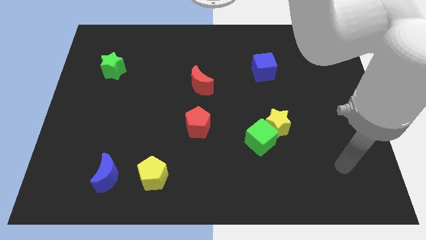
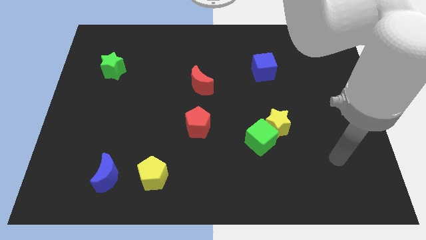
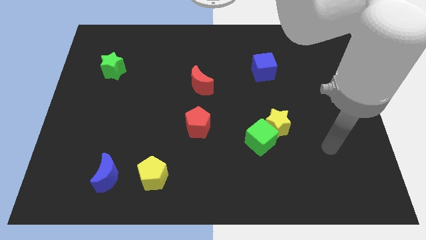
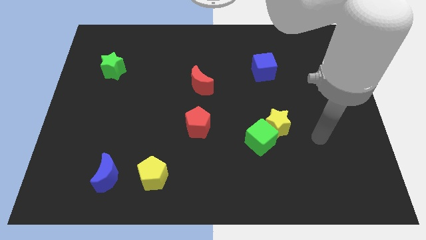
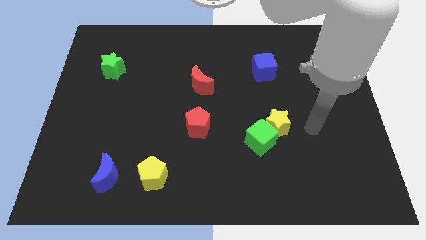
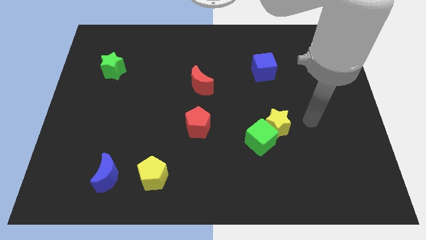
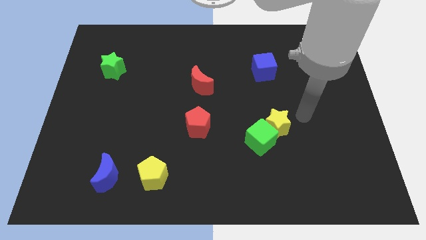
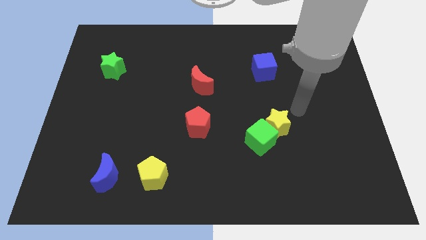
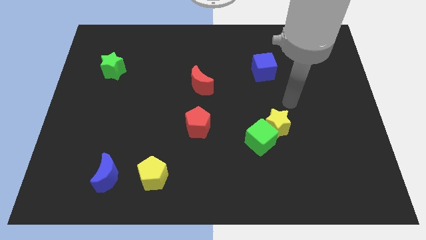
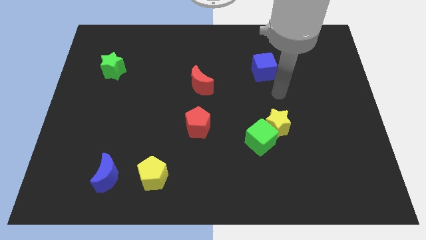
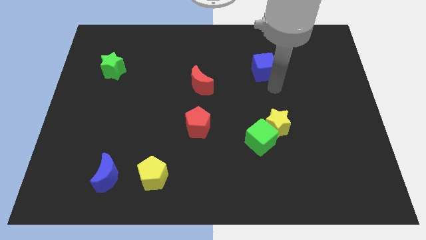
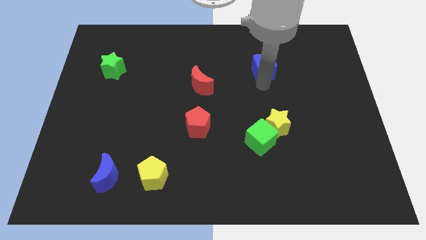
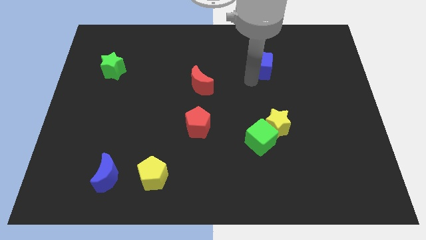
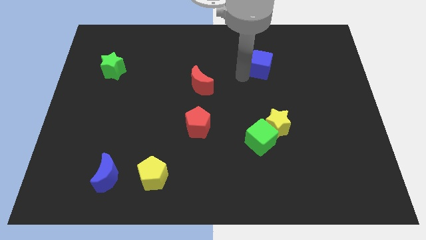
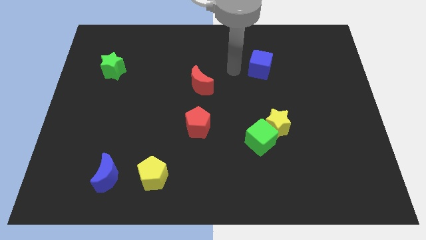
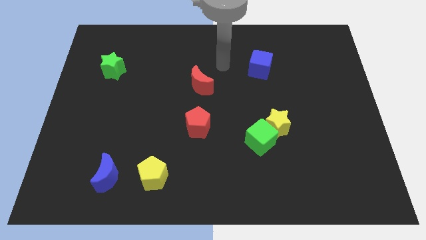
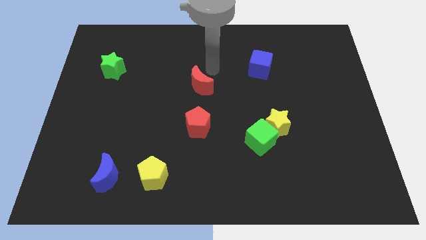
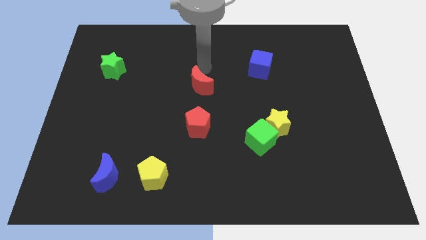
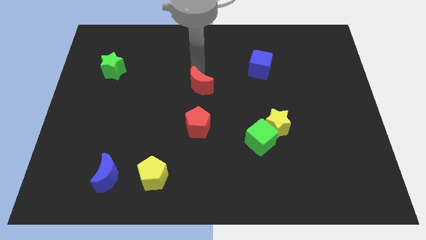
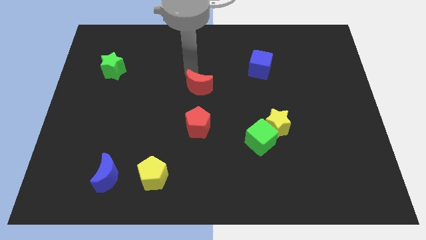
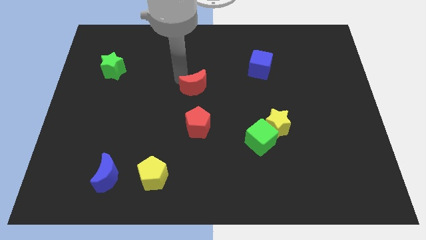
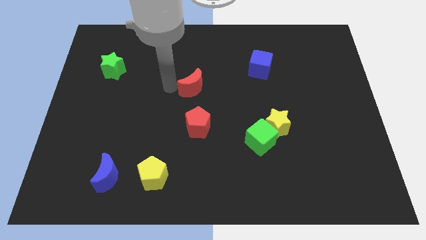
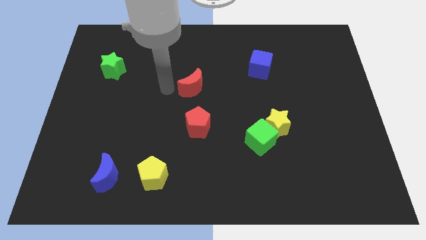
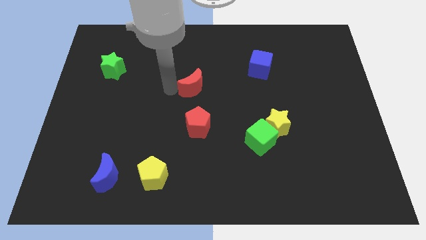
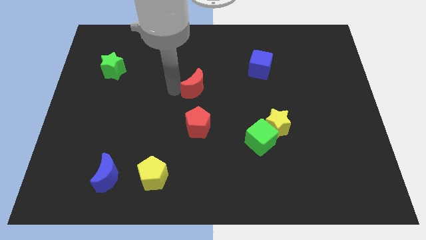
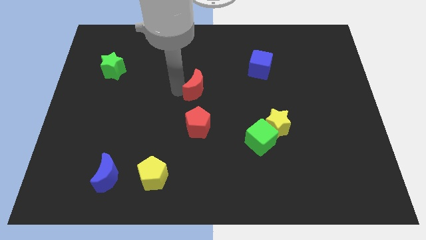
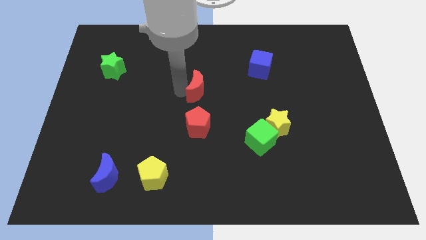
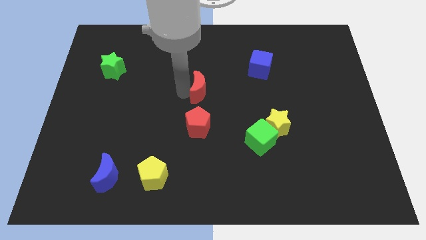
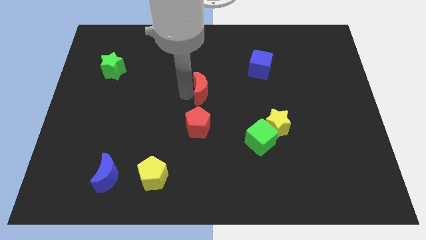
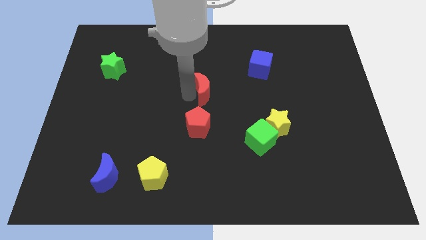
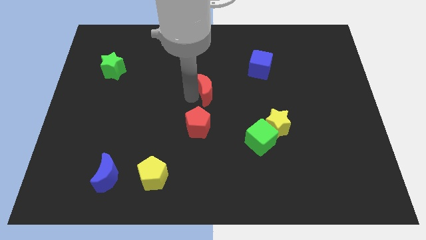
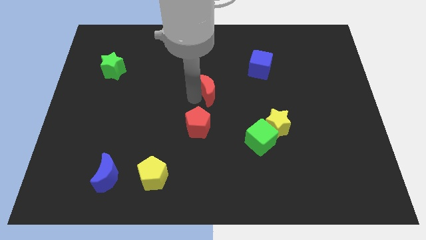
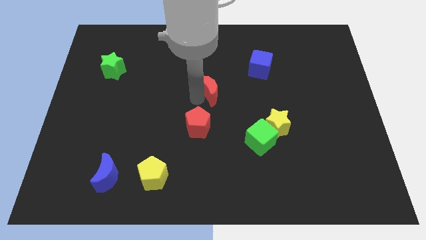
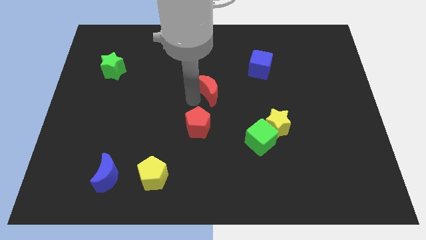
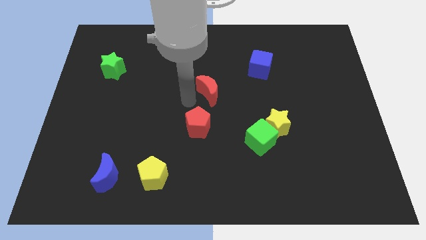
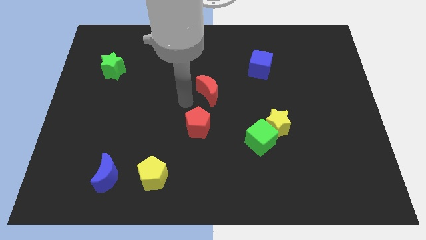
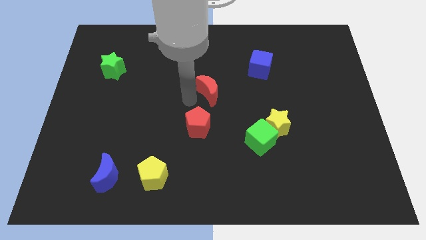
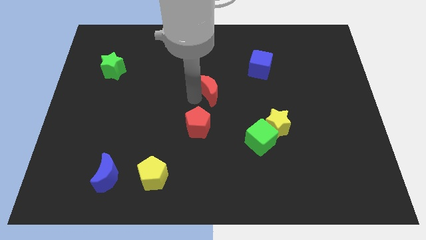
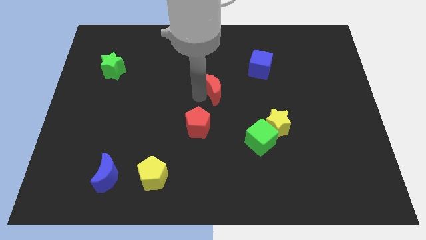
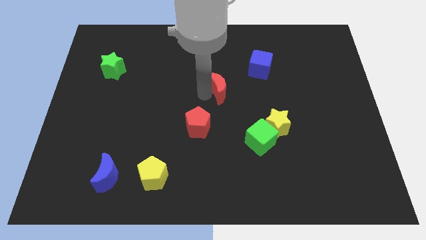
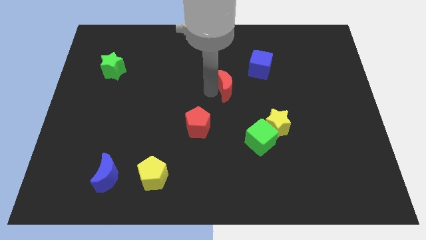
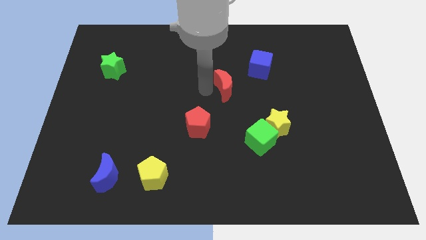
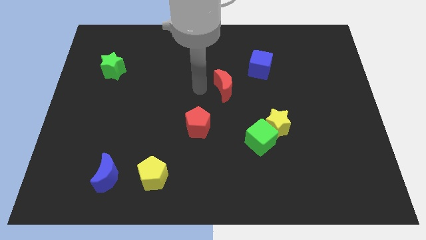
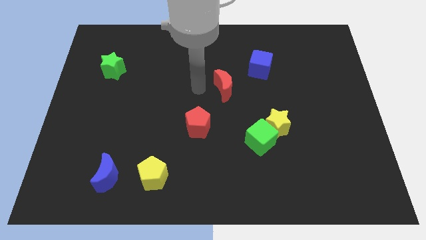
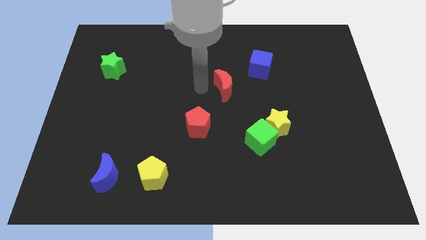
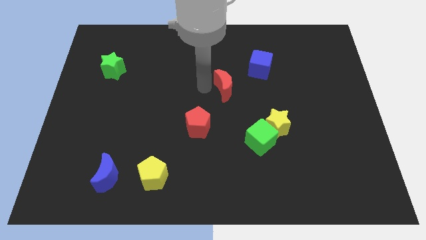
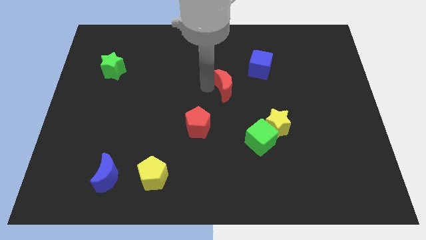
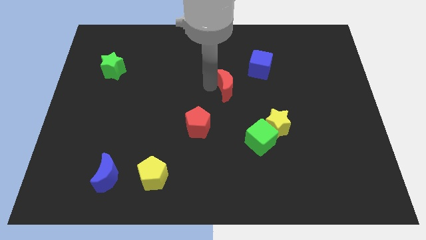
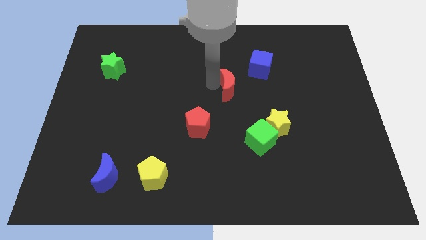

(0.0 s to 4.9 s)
move the red moon a little bit right

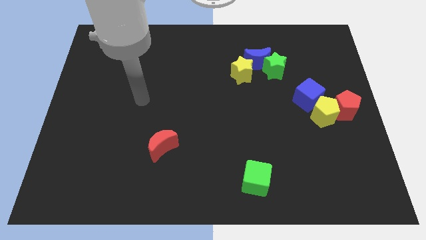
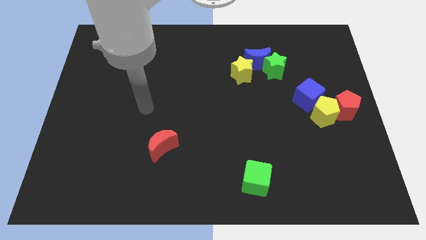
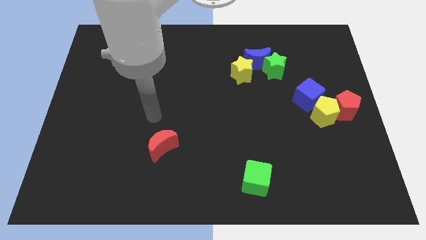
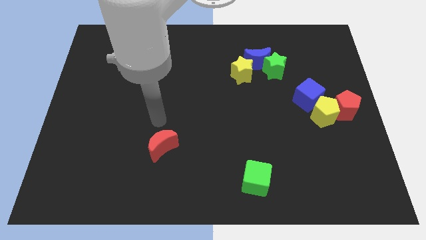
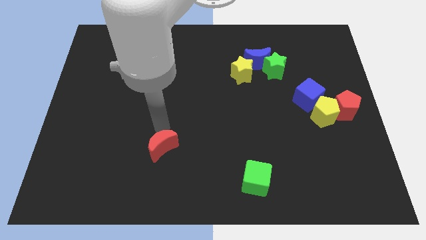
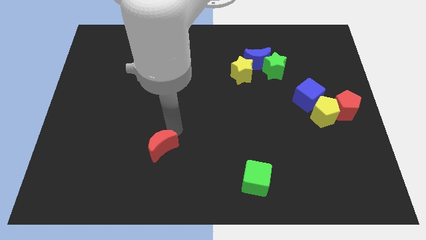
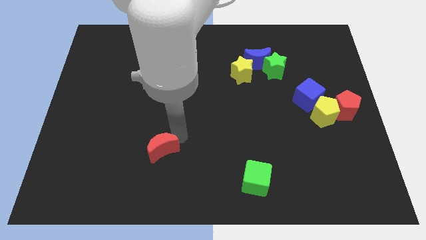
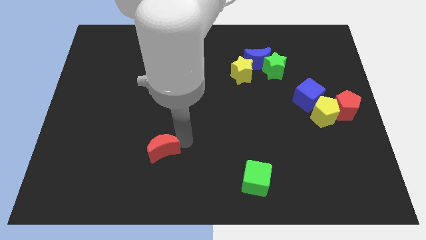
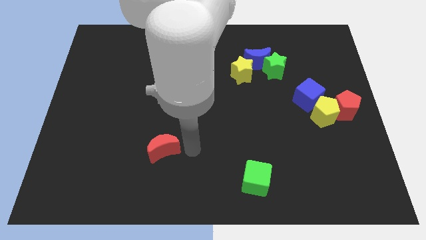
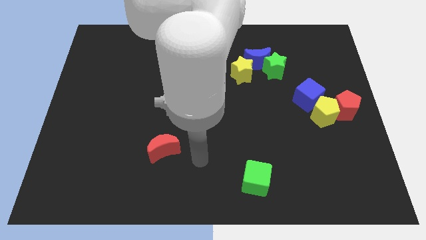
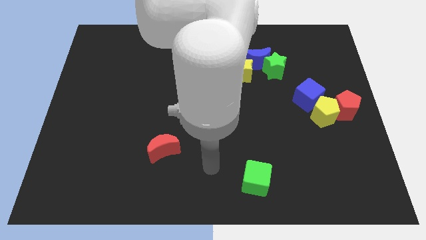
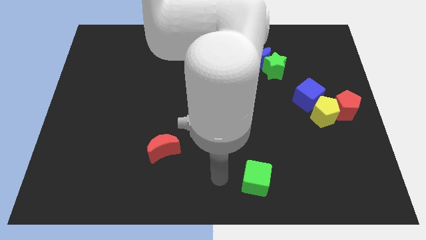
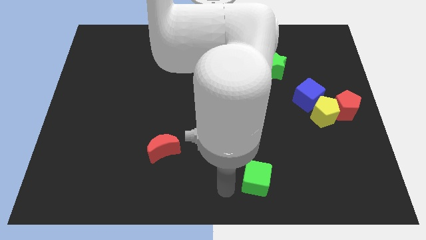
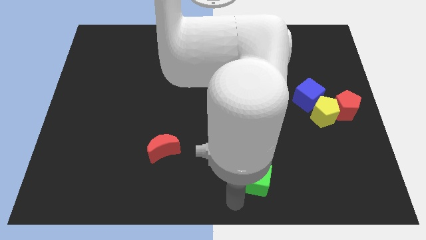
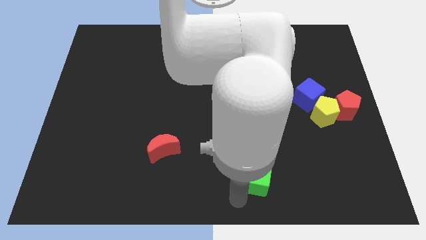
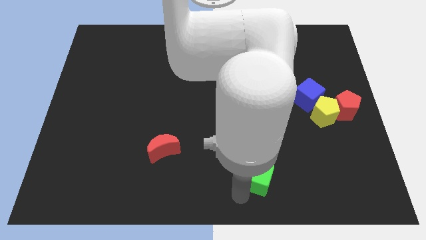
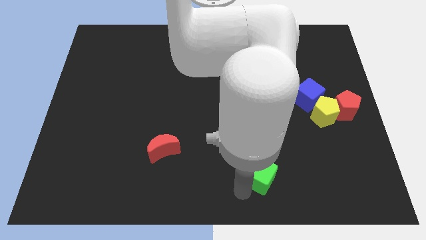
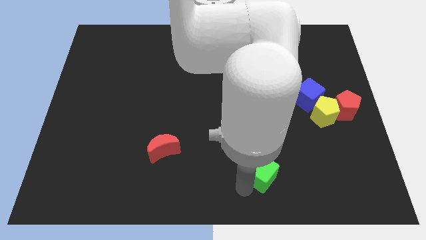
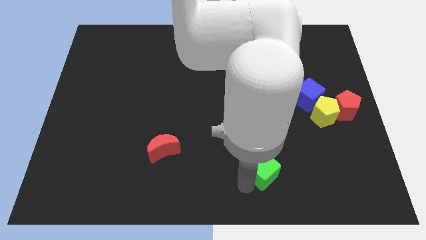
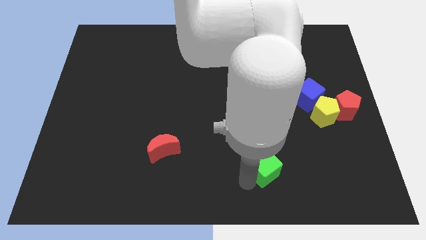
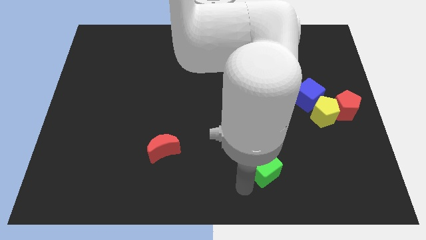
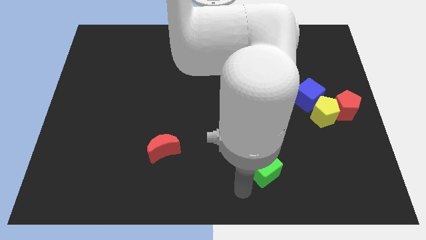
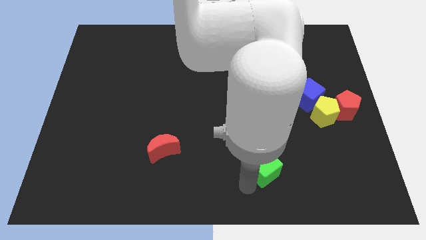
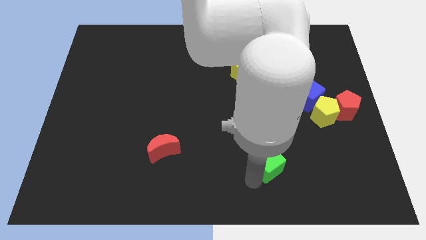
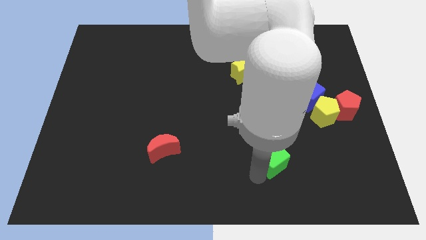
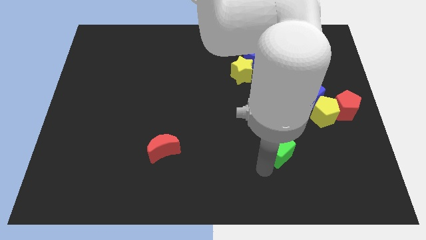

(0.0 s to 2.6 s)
push the green cube a bit upwards and right diagonally

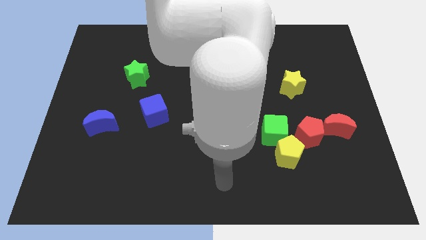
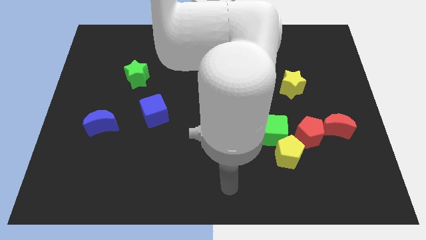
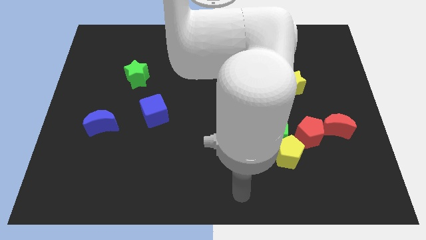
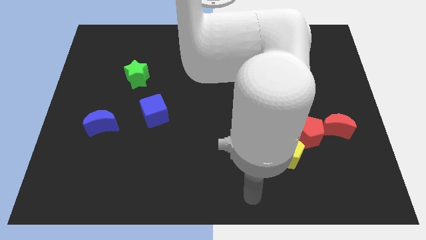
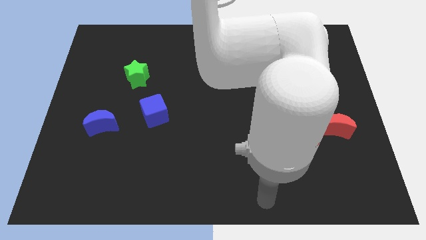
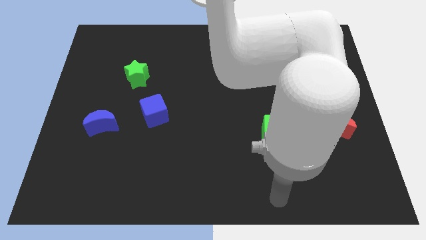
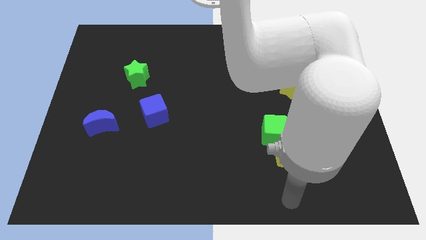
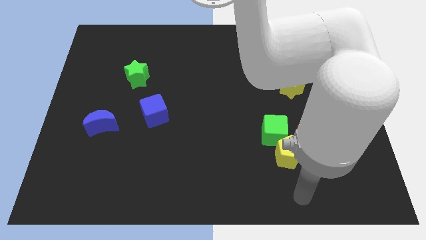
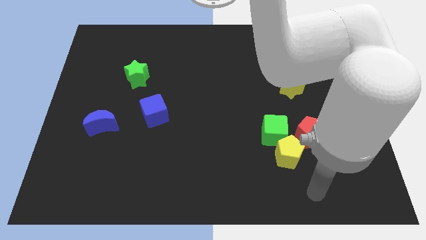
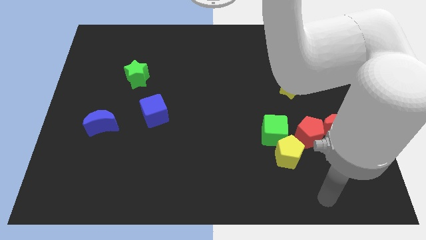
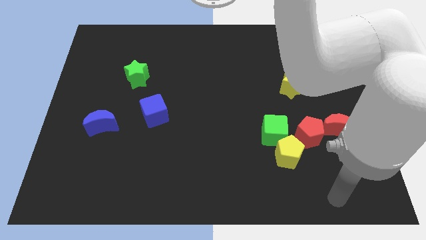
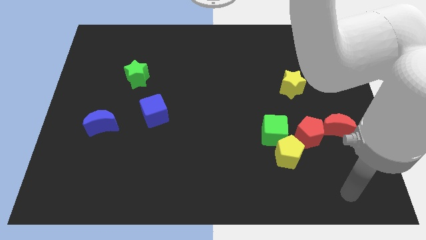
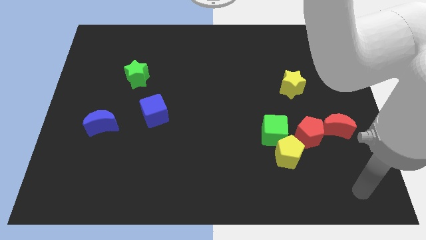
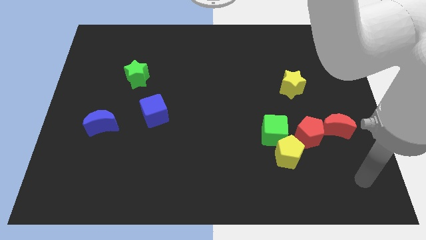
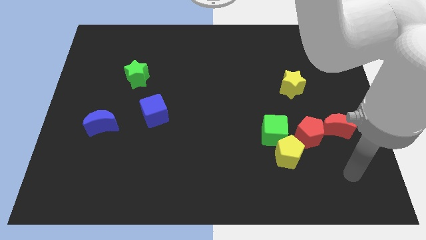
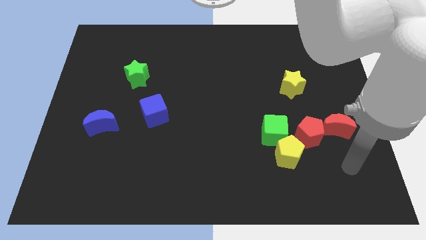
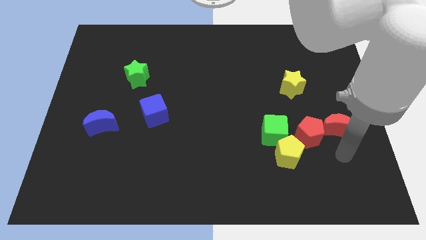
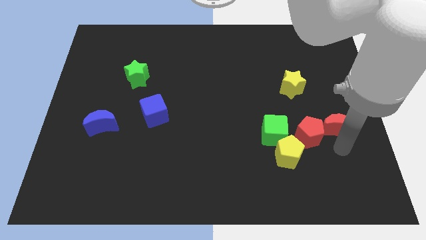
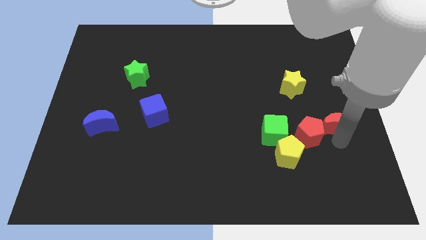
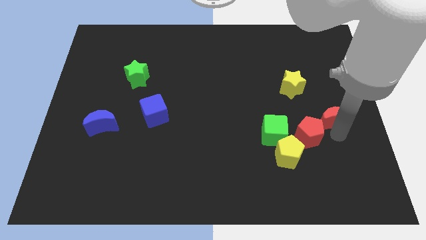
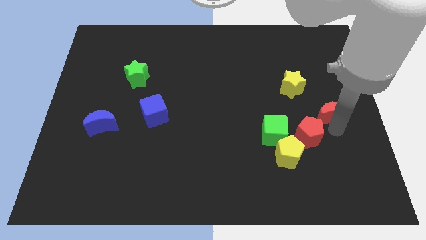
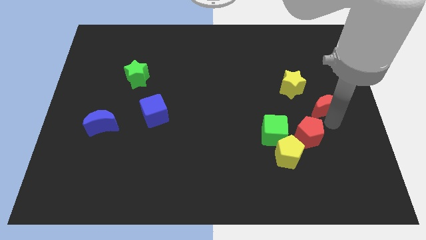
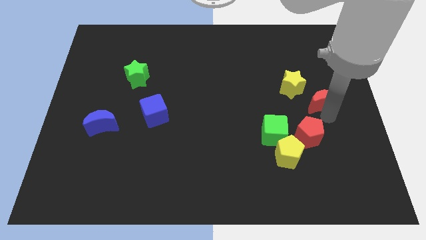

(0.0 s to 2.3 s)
slightly slide the red moon upwards
